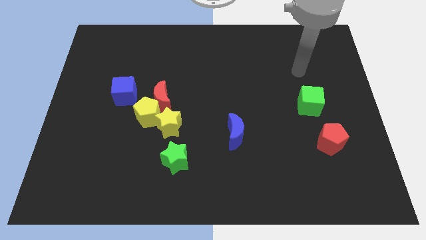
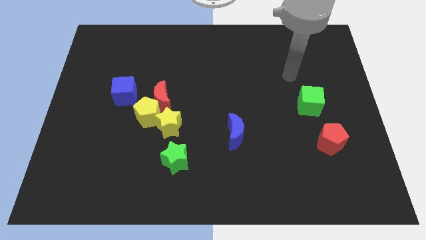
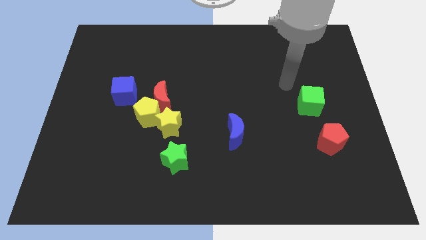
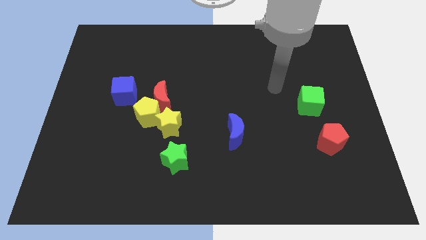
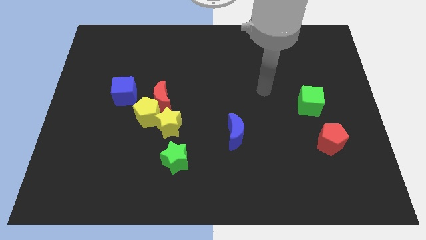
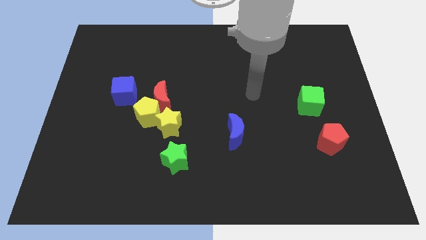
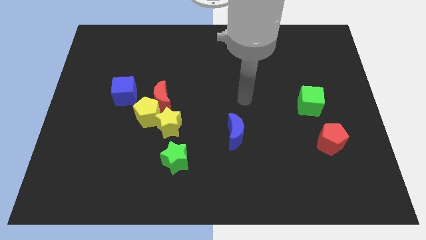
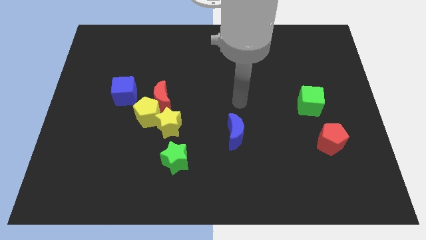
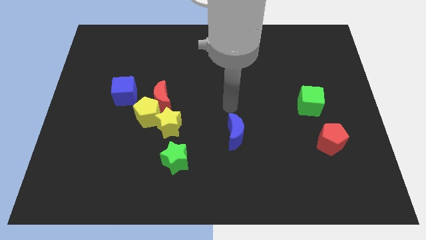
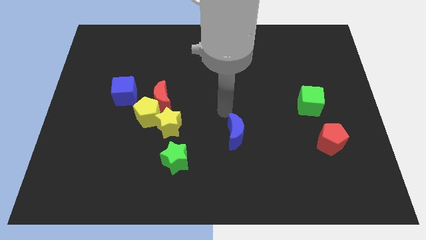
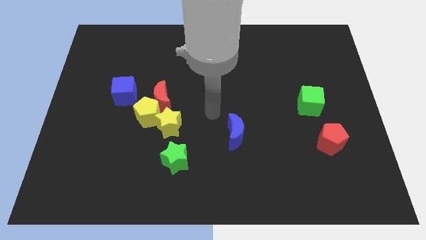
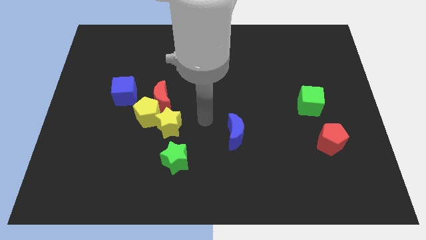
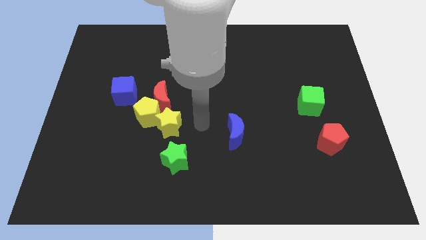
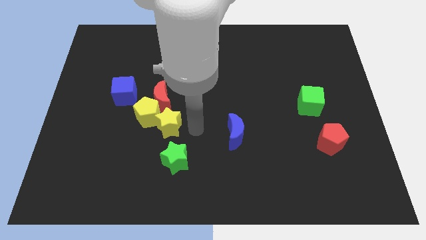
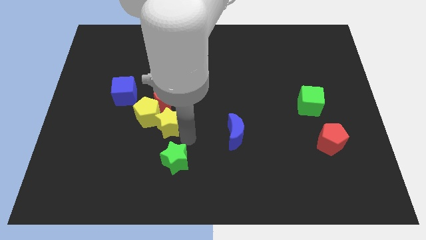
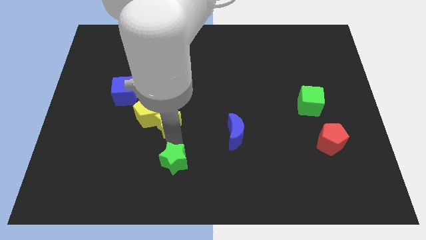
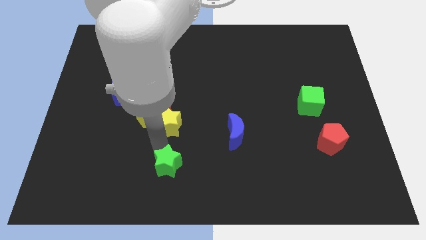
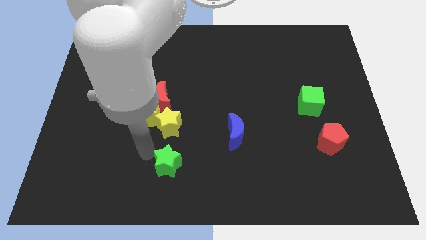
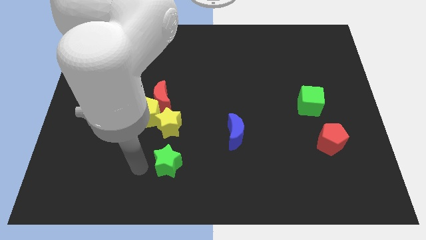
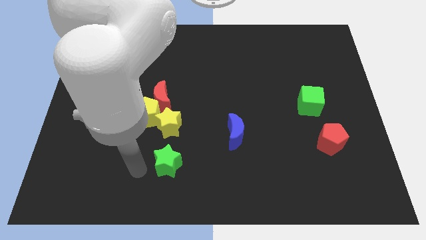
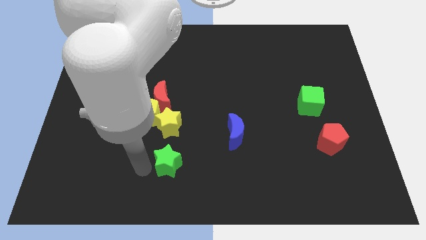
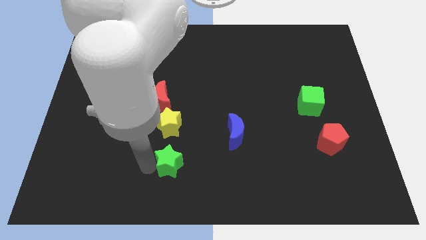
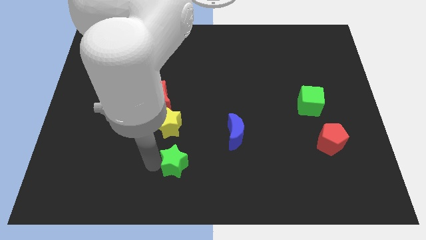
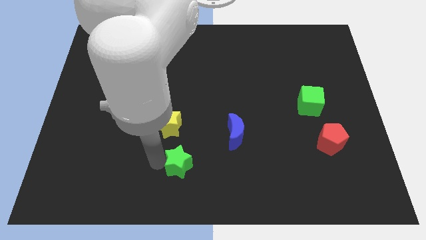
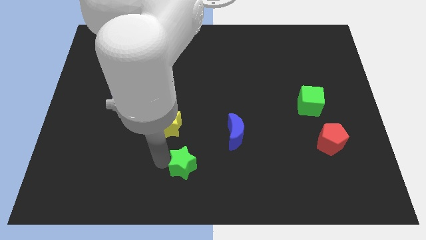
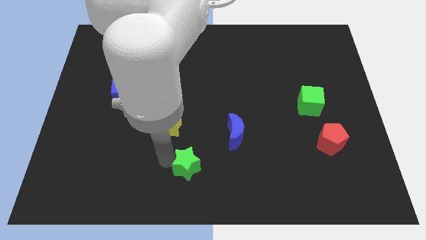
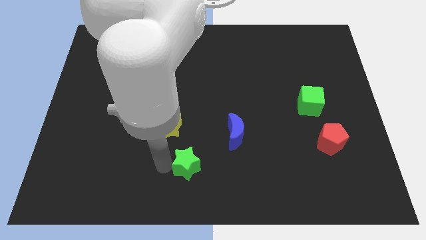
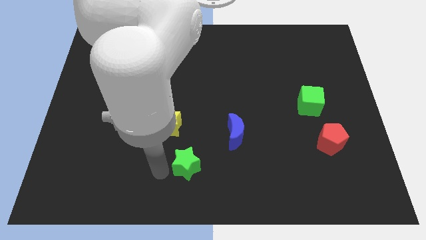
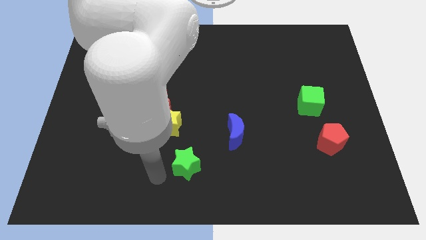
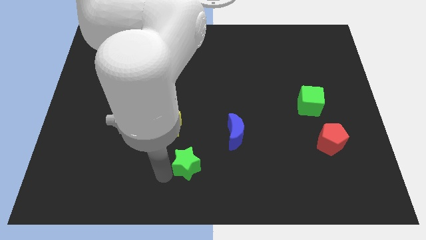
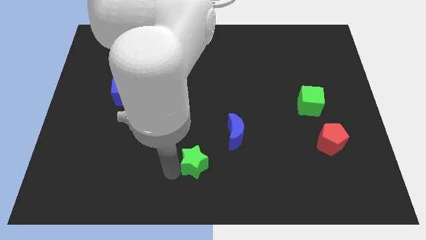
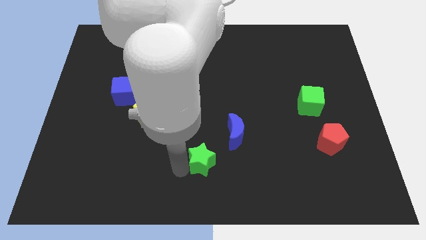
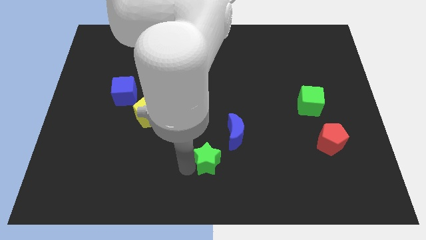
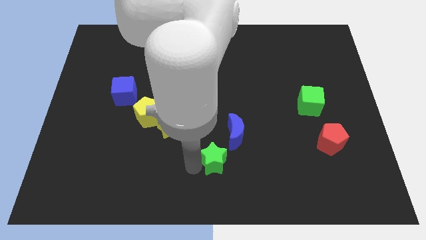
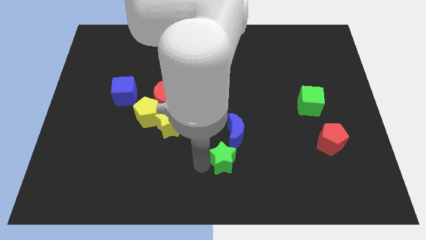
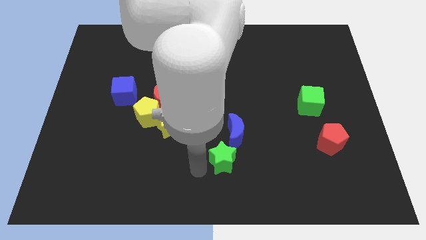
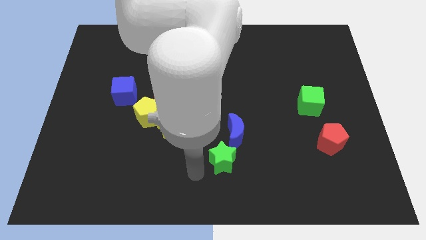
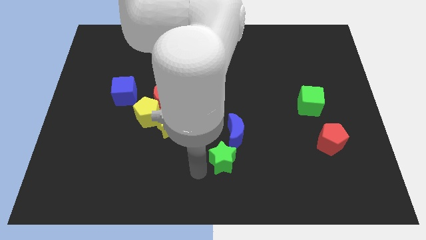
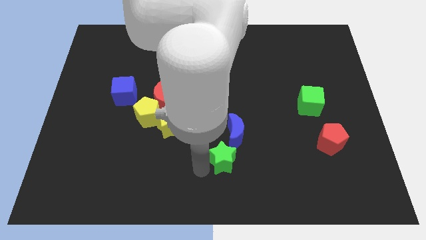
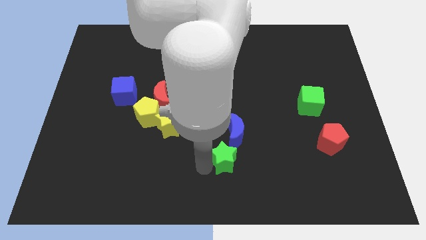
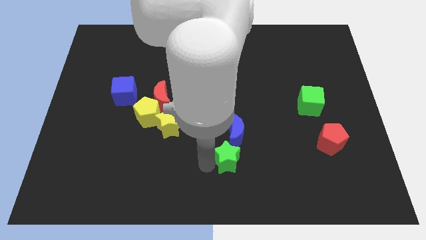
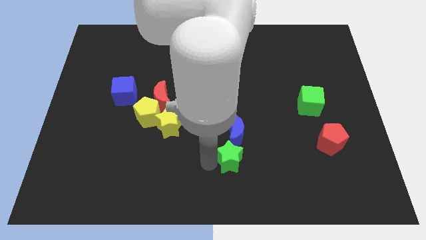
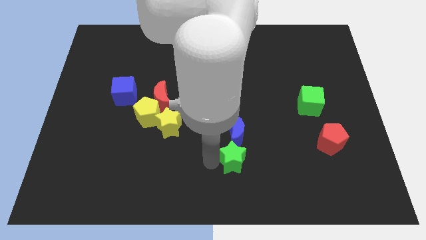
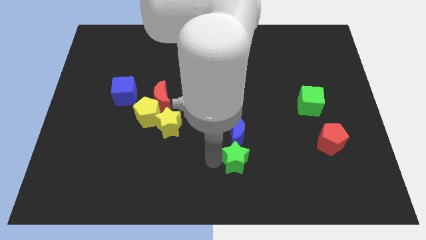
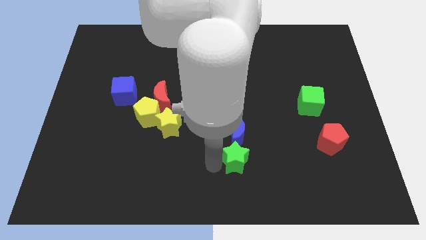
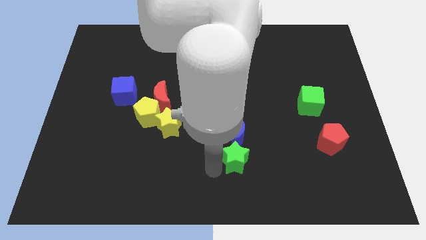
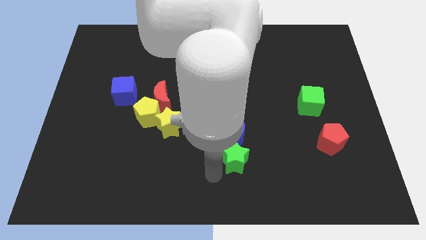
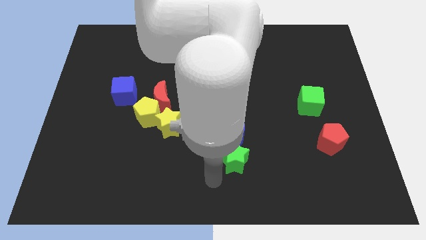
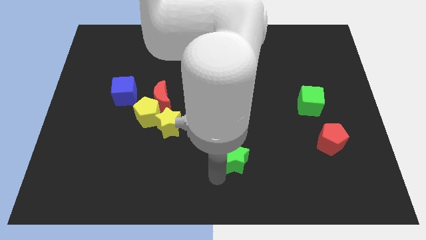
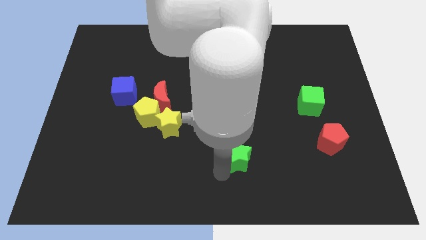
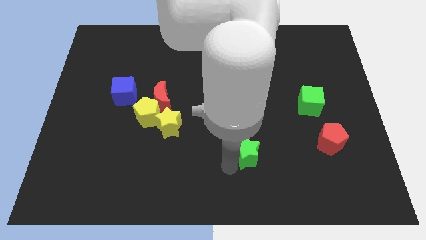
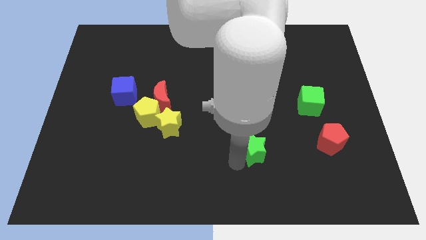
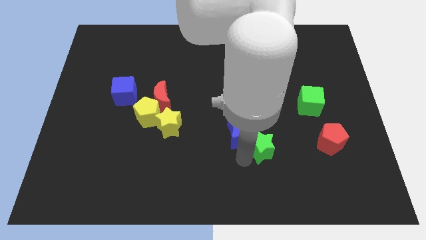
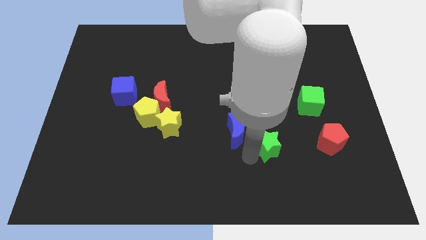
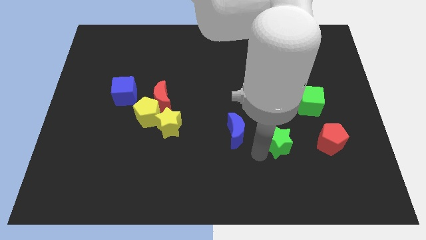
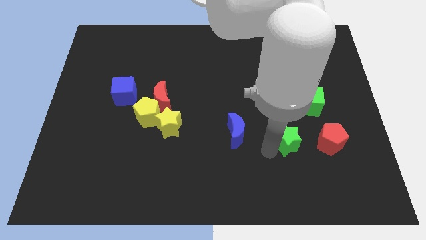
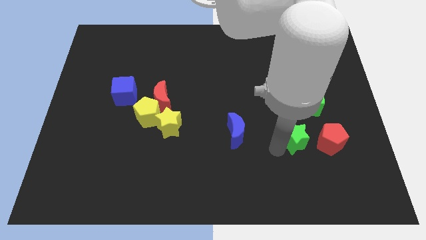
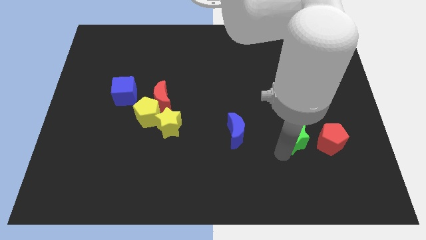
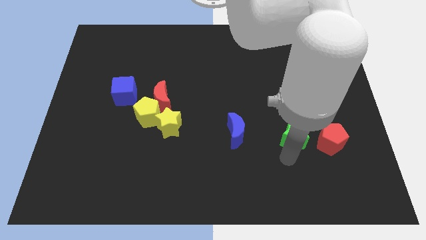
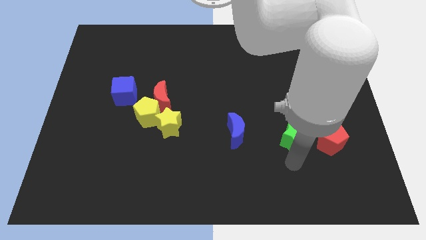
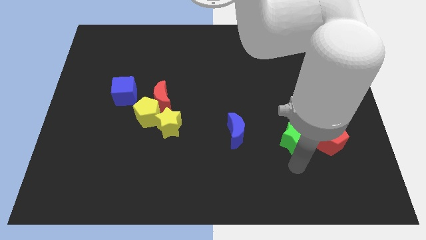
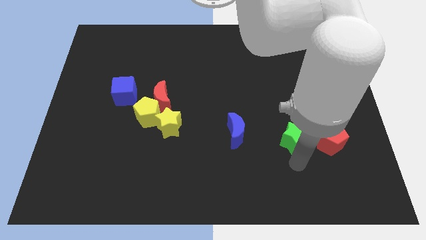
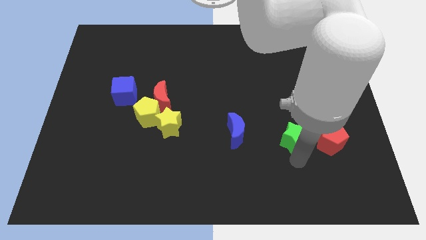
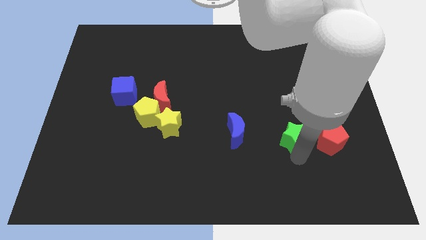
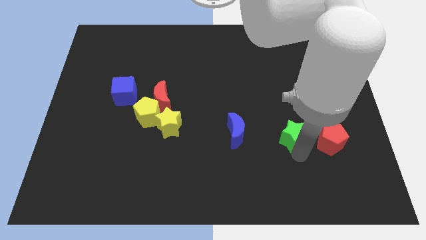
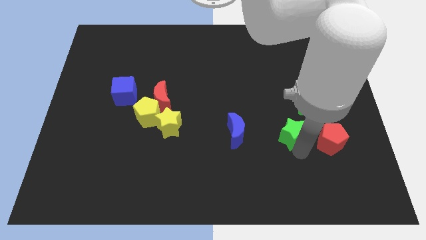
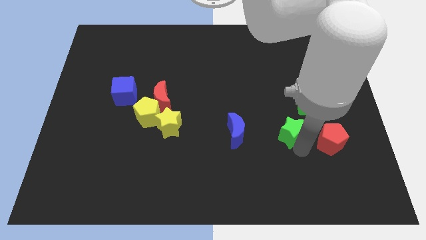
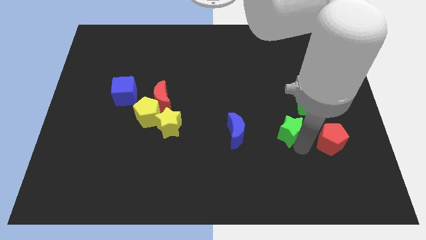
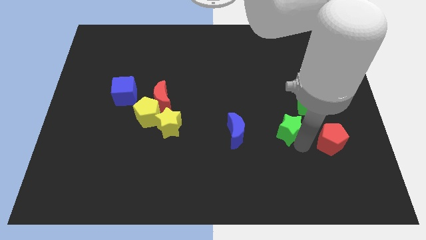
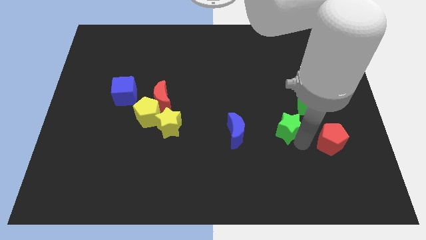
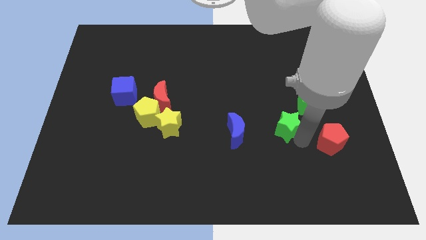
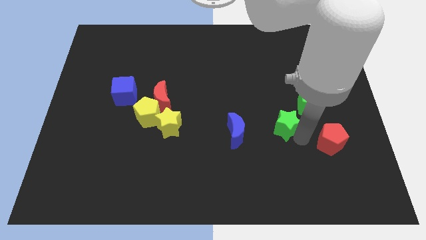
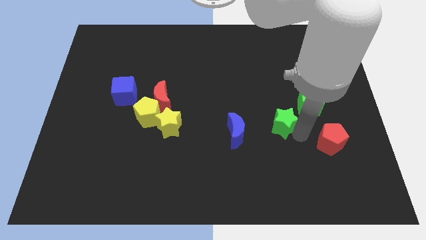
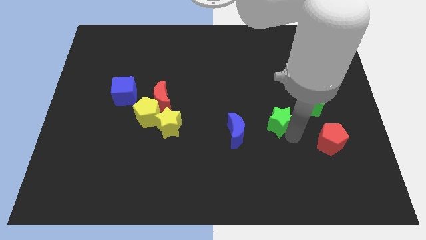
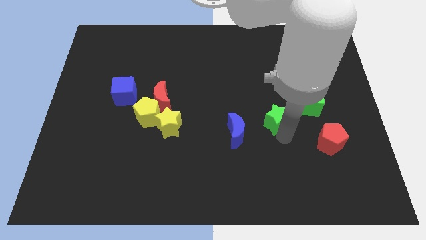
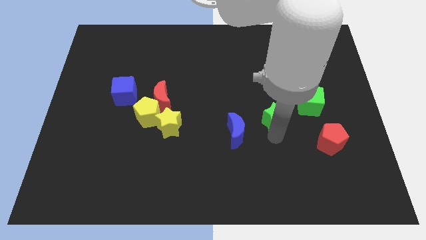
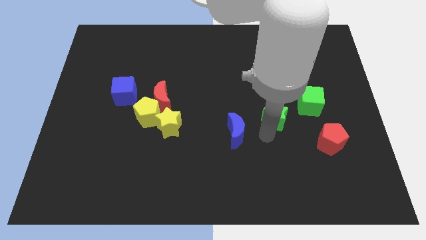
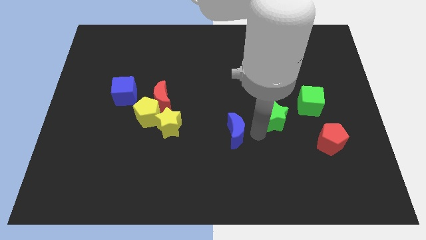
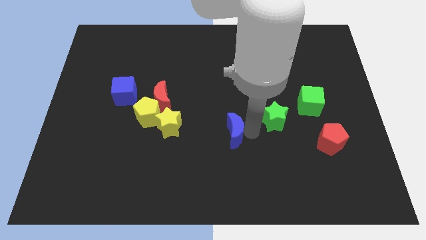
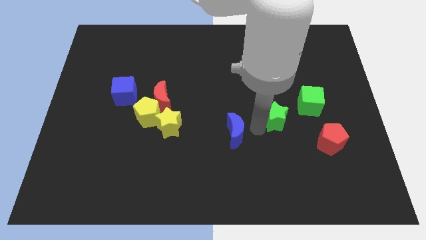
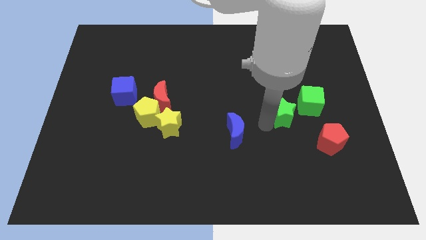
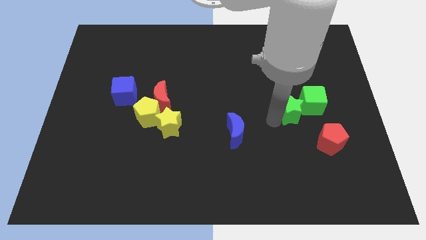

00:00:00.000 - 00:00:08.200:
put the green star close to the green cube
